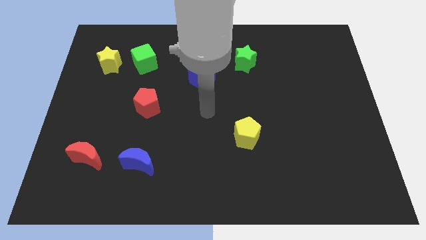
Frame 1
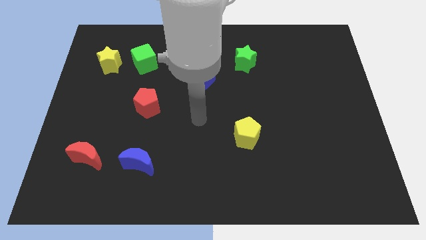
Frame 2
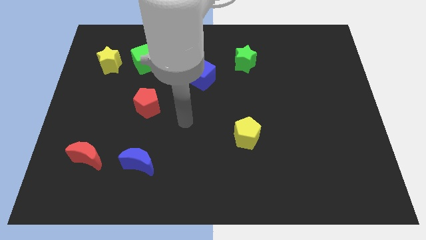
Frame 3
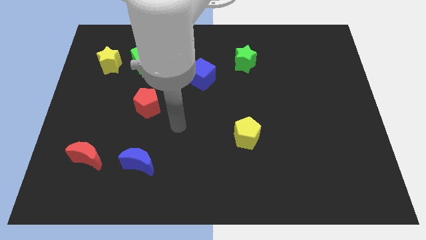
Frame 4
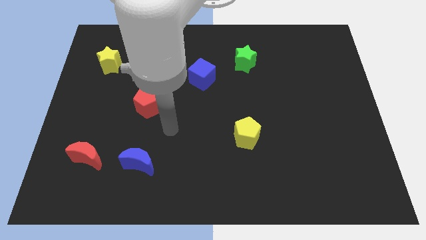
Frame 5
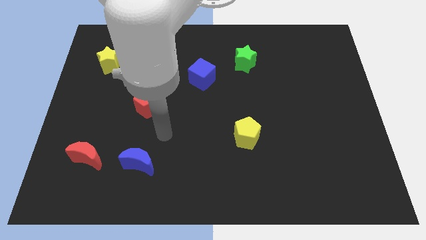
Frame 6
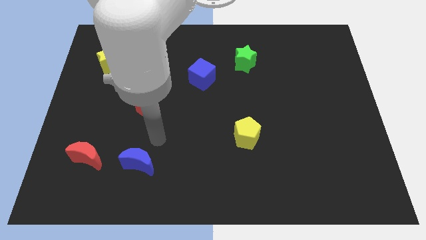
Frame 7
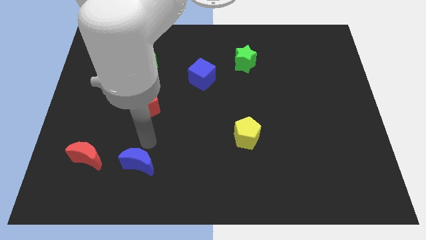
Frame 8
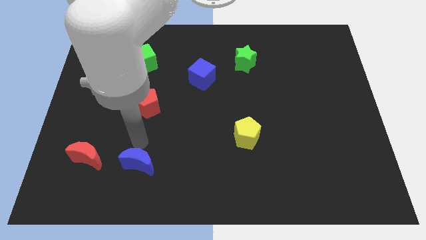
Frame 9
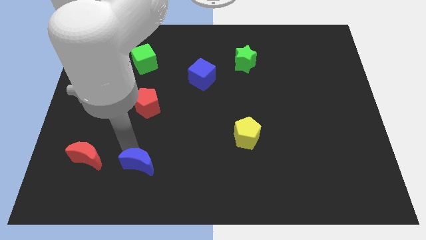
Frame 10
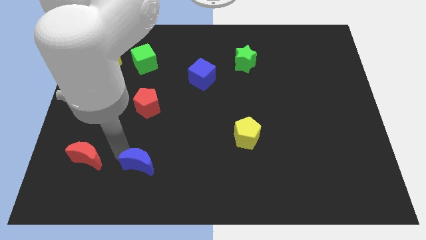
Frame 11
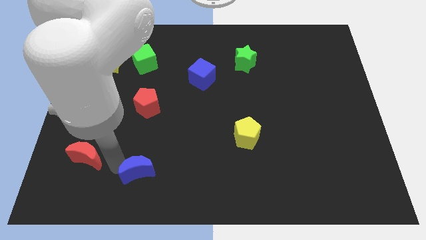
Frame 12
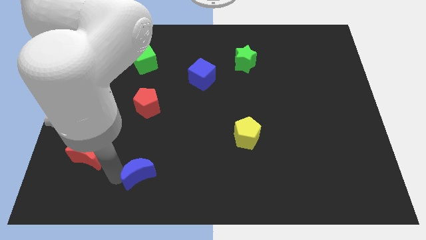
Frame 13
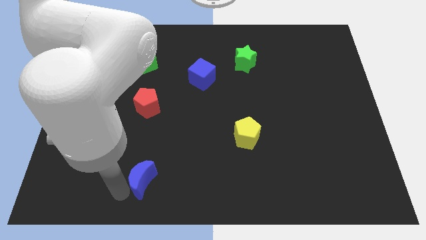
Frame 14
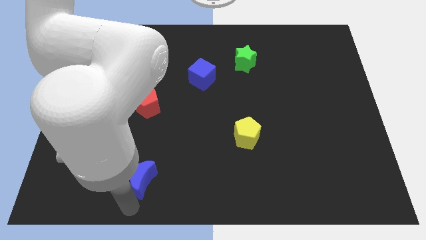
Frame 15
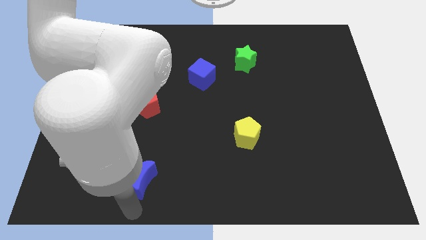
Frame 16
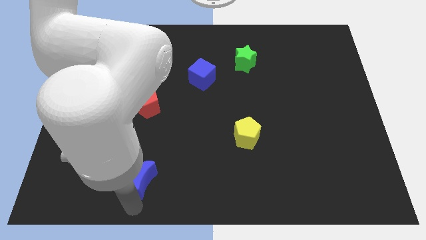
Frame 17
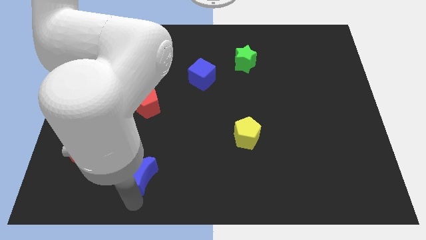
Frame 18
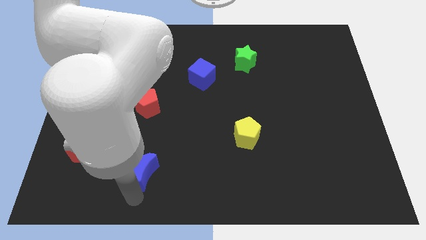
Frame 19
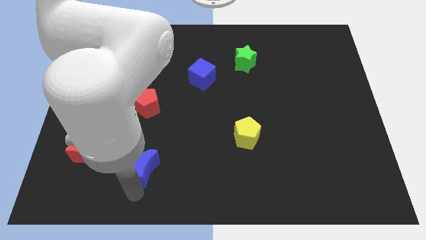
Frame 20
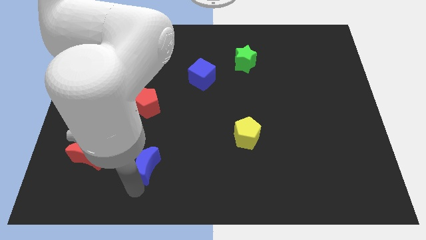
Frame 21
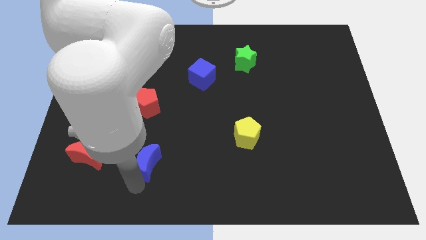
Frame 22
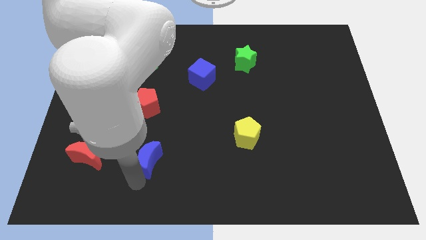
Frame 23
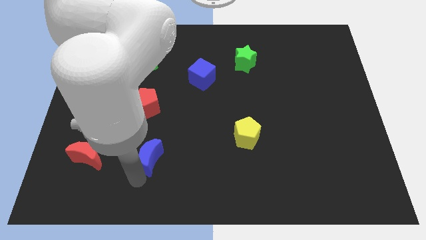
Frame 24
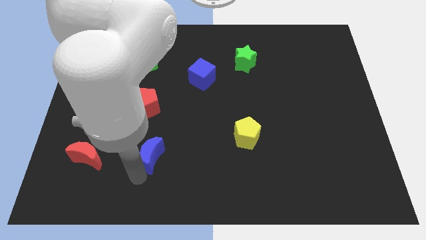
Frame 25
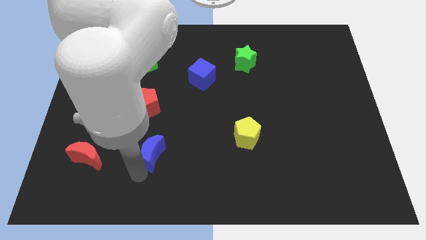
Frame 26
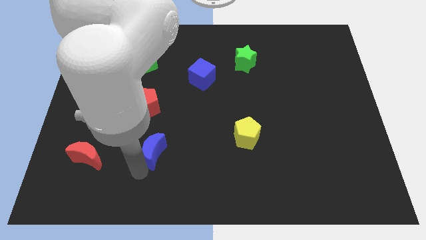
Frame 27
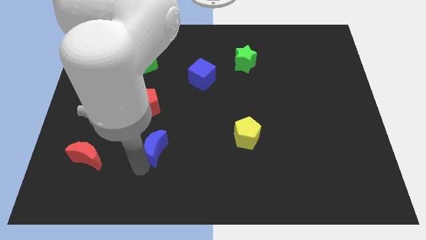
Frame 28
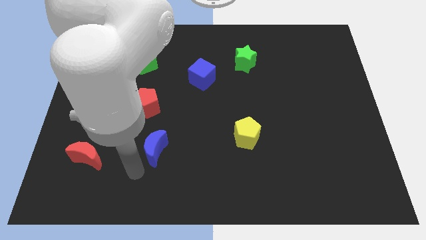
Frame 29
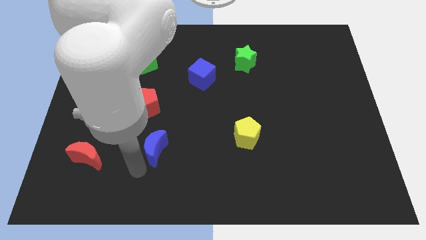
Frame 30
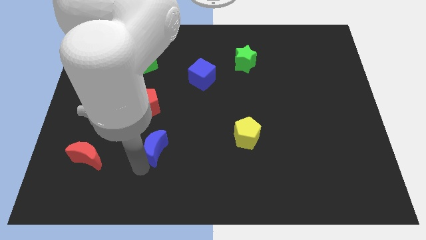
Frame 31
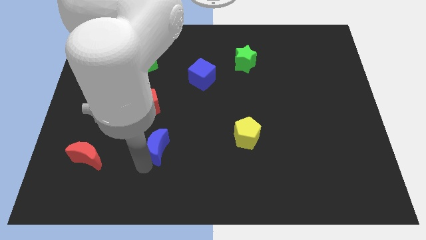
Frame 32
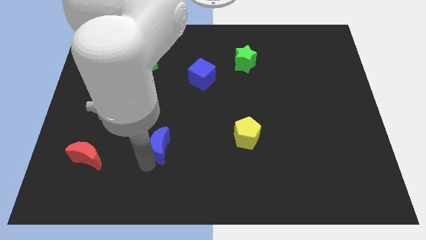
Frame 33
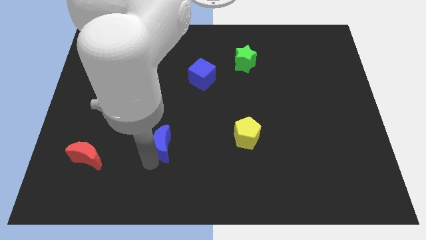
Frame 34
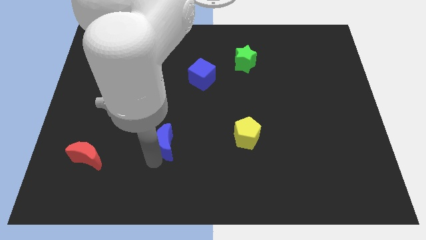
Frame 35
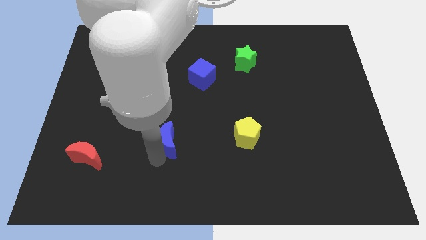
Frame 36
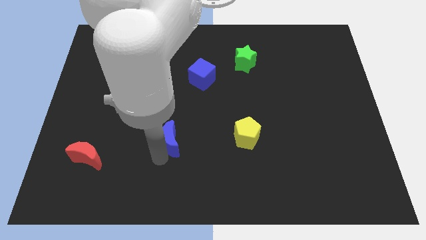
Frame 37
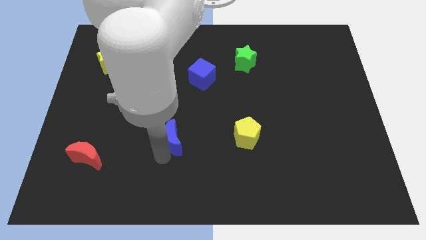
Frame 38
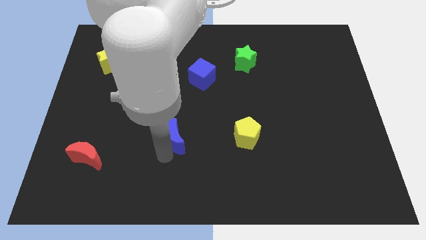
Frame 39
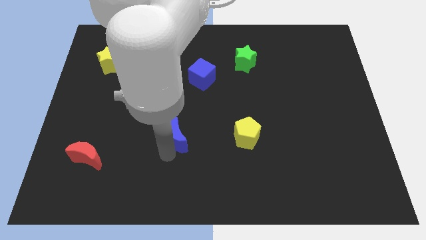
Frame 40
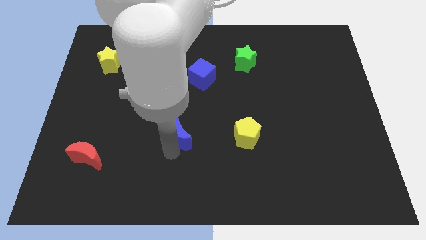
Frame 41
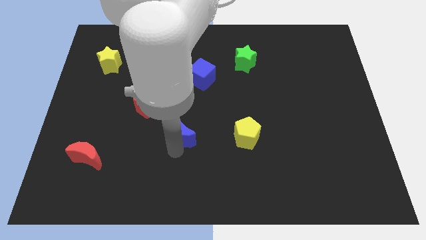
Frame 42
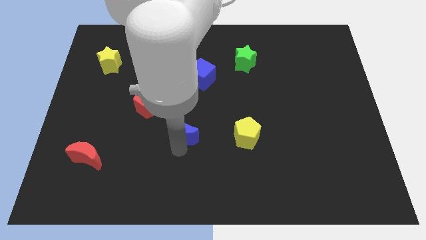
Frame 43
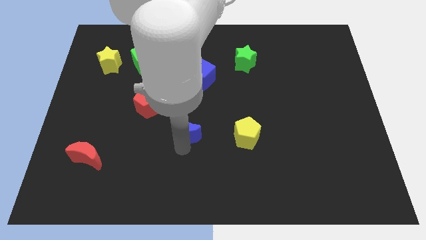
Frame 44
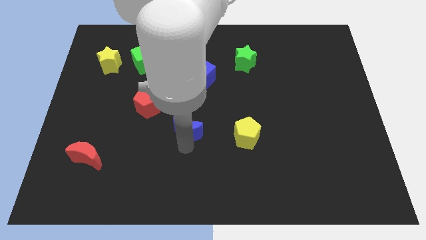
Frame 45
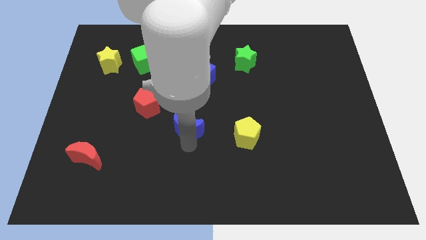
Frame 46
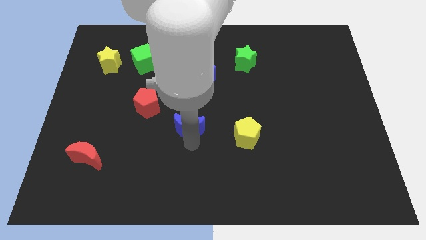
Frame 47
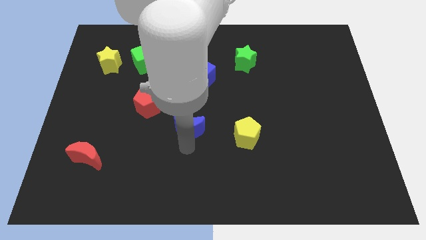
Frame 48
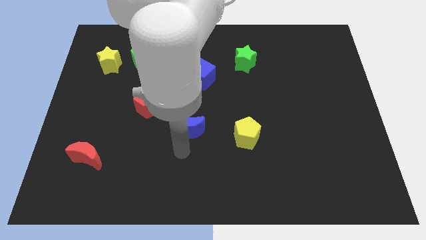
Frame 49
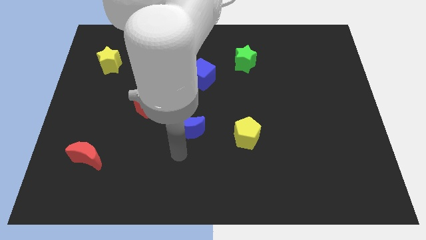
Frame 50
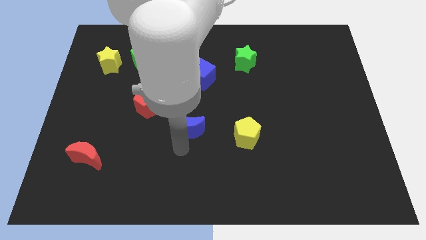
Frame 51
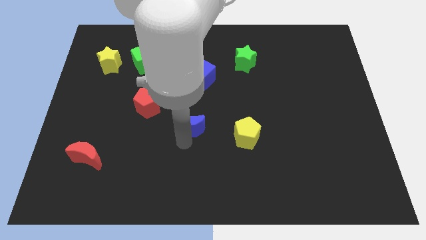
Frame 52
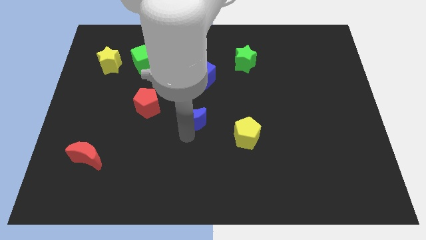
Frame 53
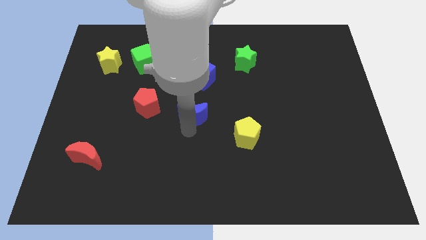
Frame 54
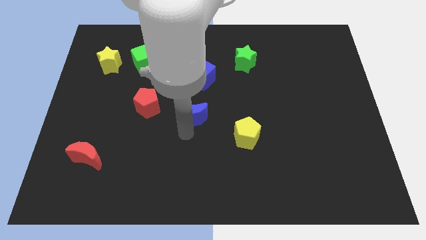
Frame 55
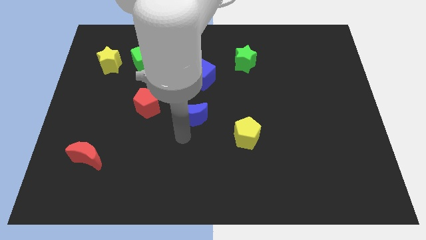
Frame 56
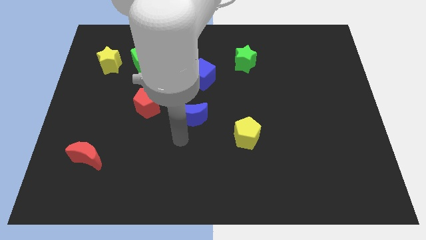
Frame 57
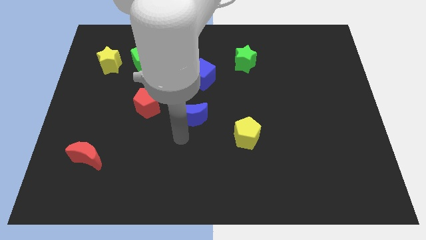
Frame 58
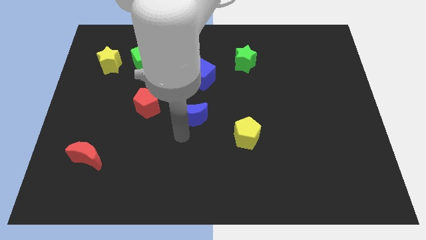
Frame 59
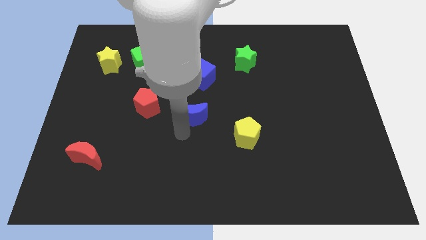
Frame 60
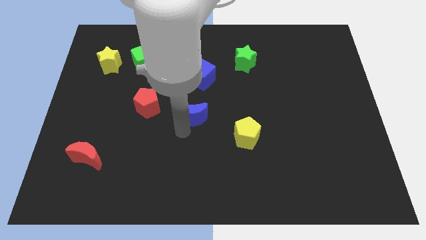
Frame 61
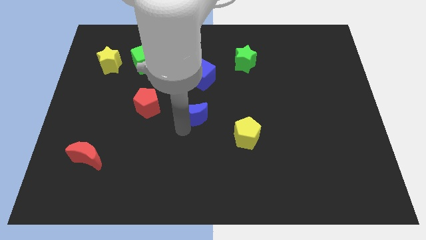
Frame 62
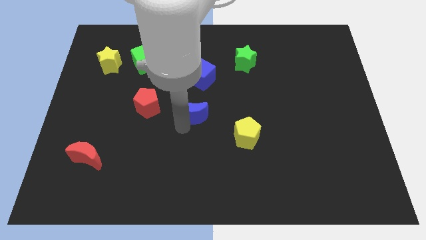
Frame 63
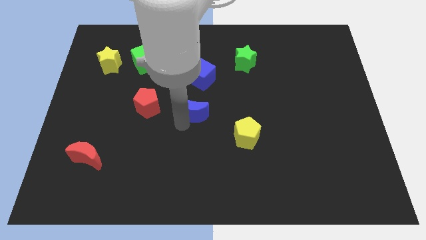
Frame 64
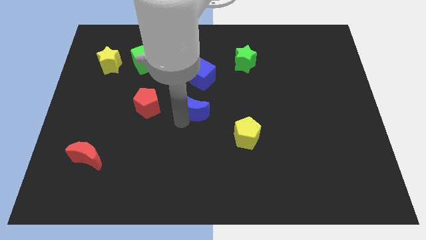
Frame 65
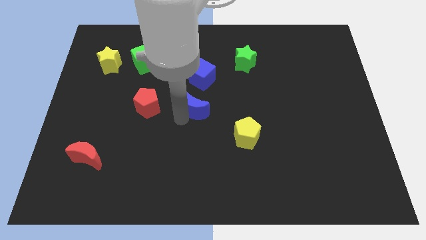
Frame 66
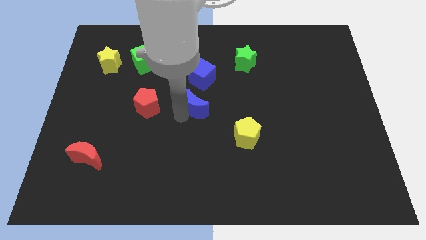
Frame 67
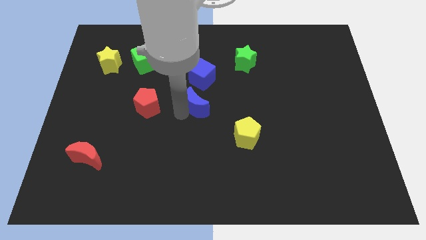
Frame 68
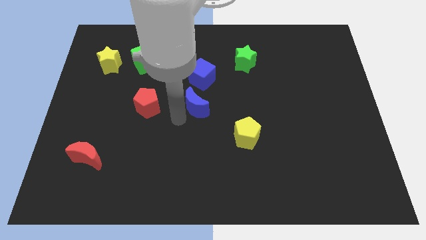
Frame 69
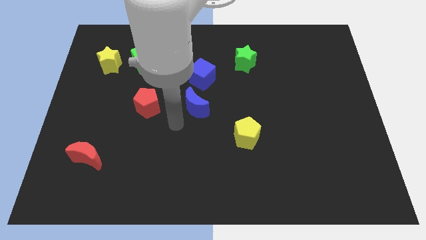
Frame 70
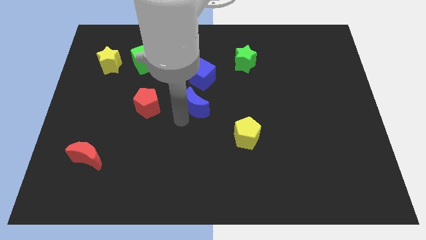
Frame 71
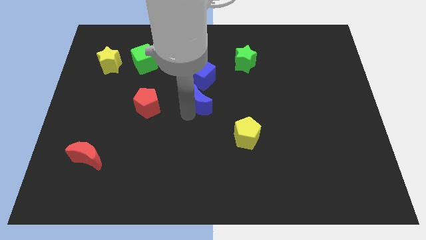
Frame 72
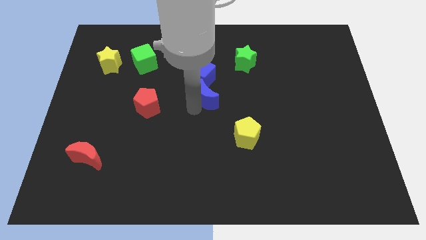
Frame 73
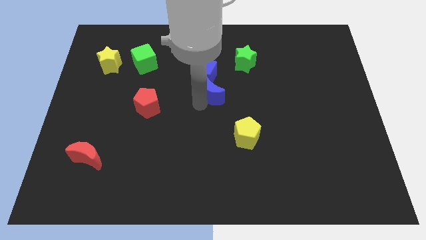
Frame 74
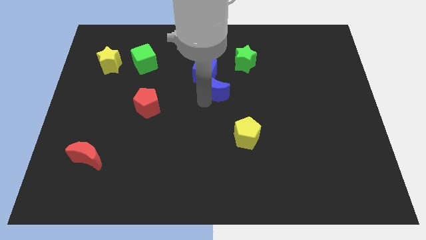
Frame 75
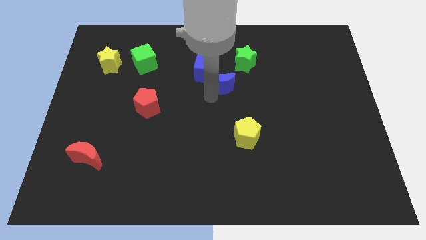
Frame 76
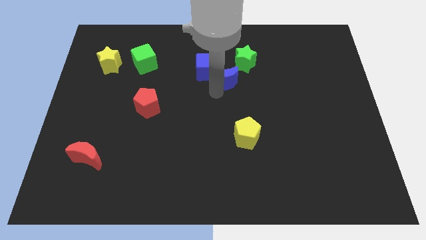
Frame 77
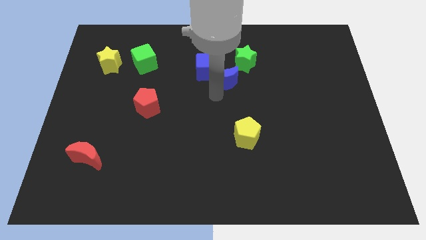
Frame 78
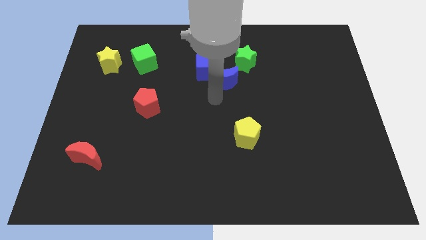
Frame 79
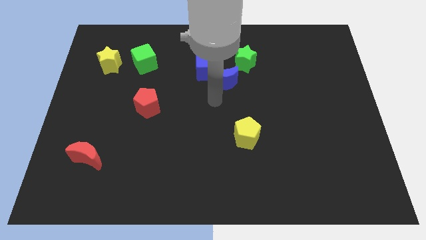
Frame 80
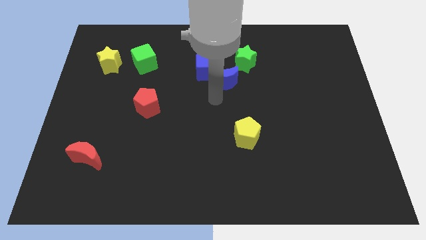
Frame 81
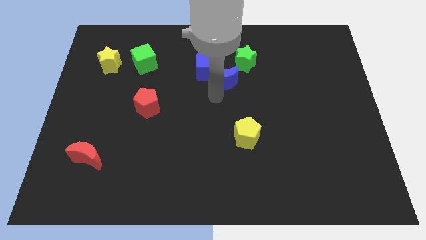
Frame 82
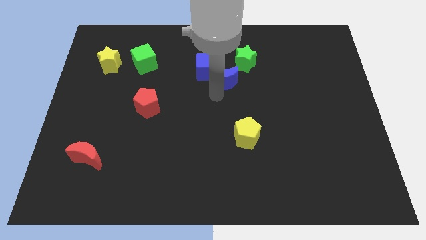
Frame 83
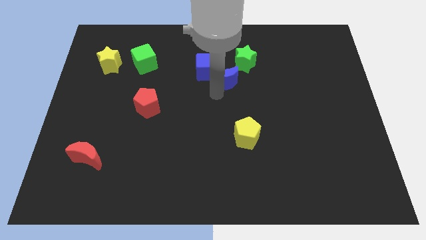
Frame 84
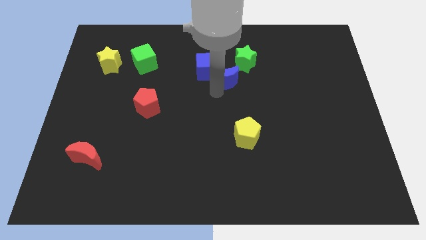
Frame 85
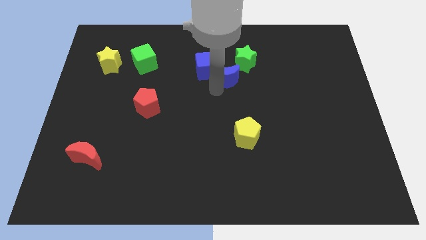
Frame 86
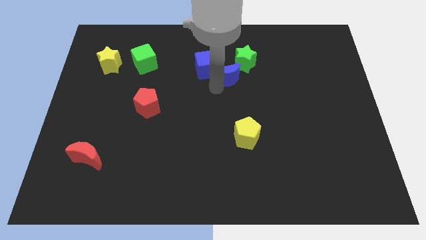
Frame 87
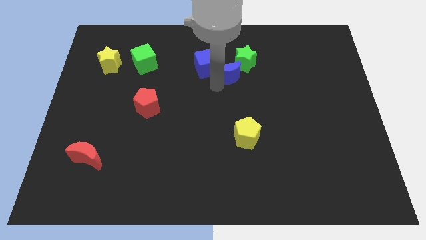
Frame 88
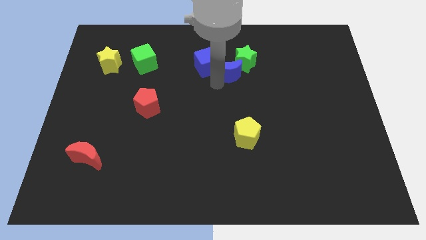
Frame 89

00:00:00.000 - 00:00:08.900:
move the blue moon next to the green star
